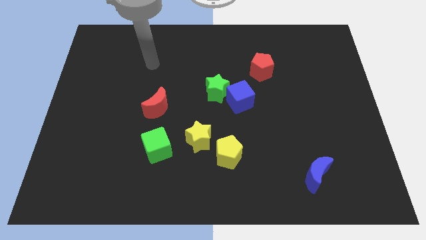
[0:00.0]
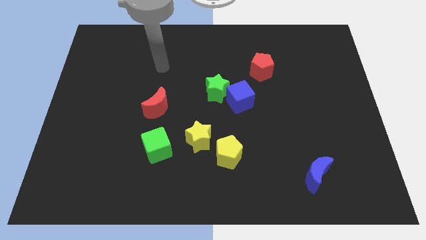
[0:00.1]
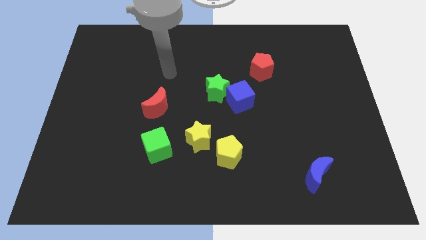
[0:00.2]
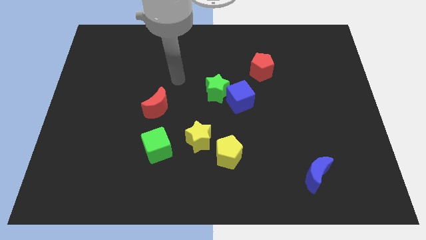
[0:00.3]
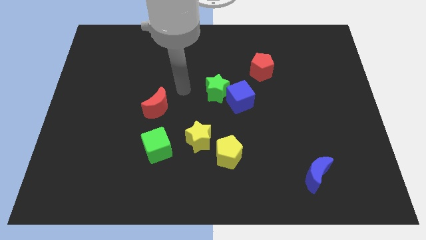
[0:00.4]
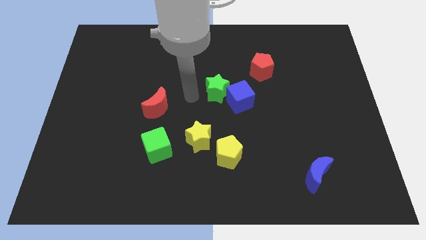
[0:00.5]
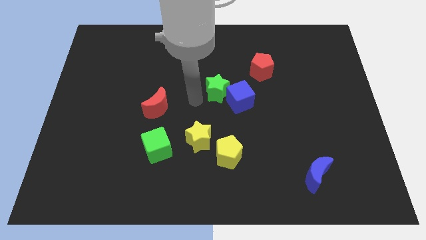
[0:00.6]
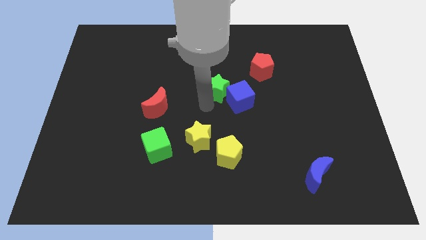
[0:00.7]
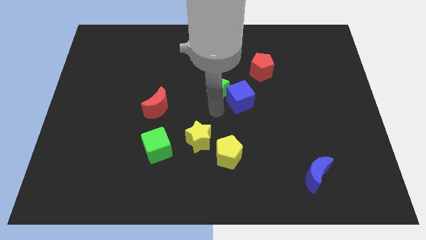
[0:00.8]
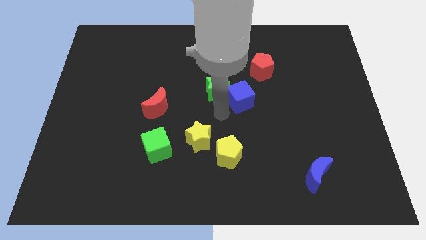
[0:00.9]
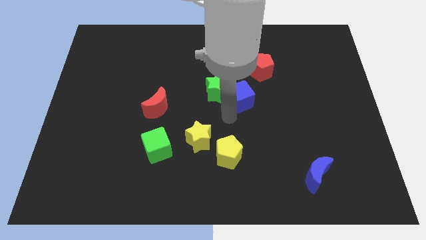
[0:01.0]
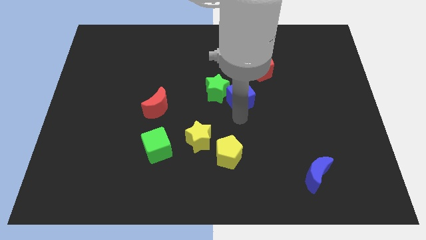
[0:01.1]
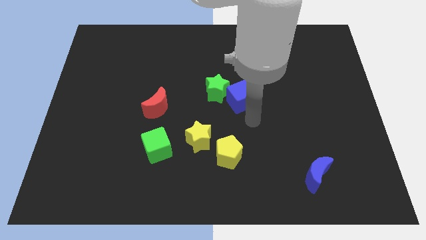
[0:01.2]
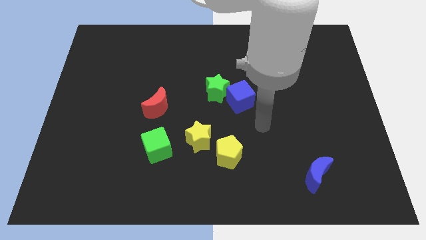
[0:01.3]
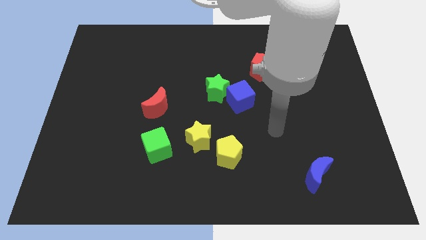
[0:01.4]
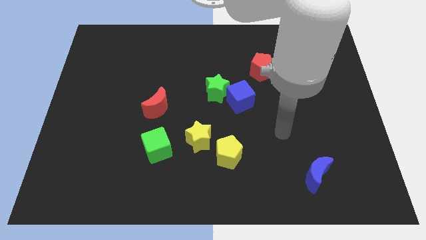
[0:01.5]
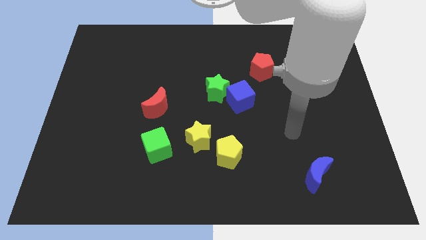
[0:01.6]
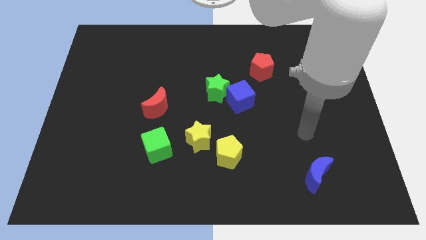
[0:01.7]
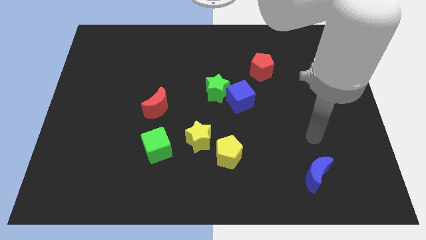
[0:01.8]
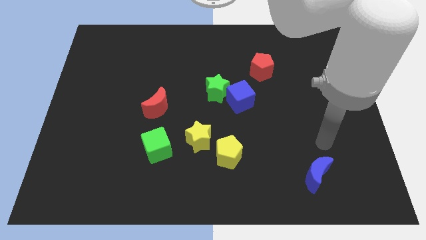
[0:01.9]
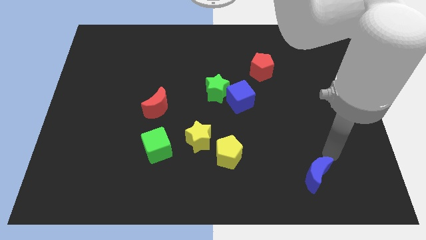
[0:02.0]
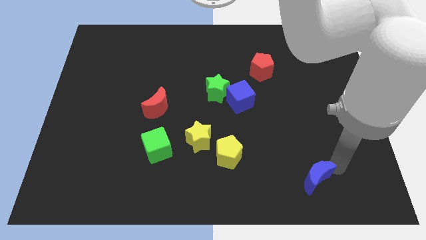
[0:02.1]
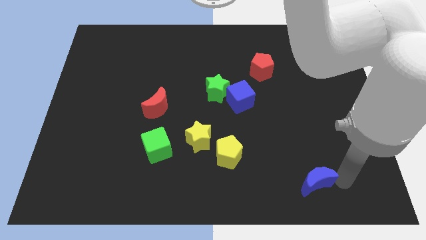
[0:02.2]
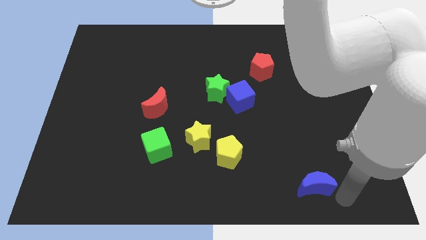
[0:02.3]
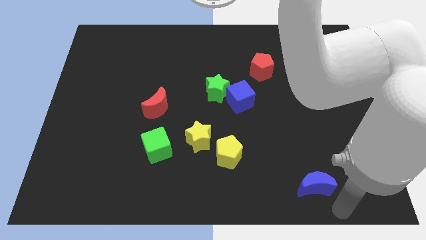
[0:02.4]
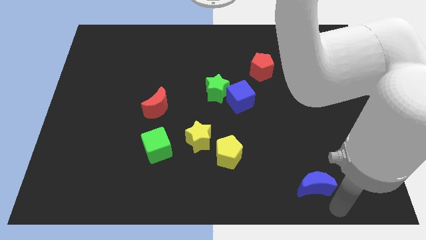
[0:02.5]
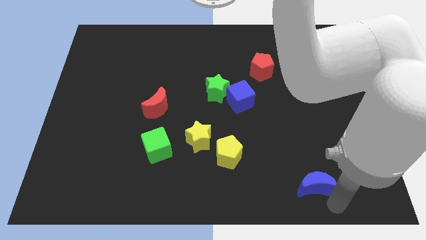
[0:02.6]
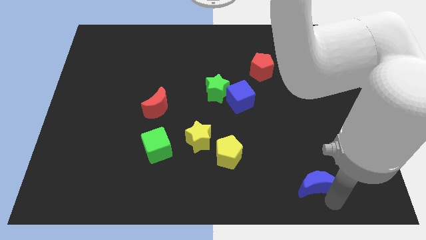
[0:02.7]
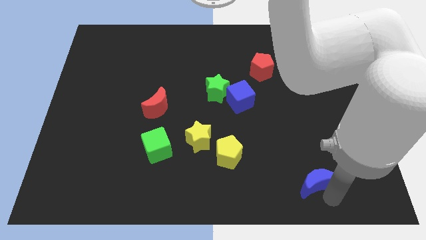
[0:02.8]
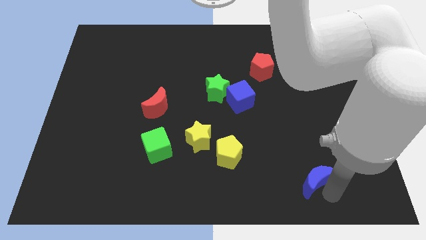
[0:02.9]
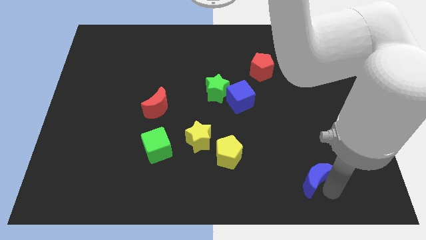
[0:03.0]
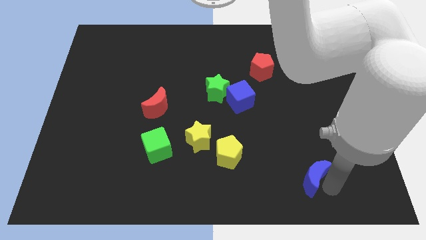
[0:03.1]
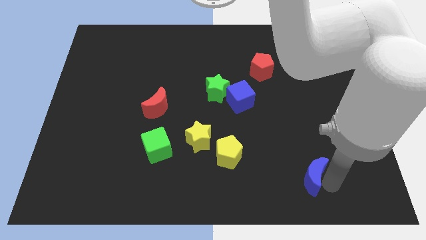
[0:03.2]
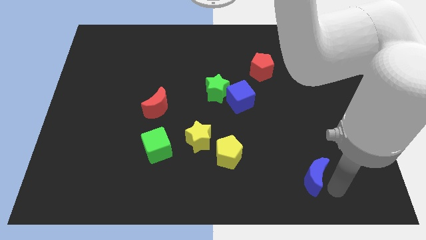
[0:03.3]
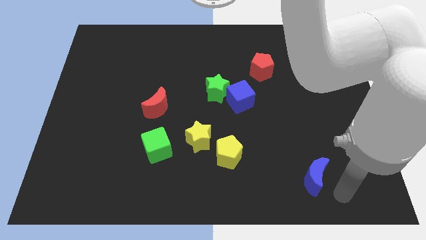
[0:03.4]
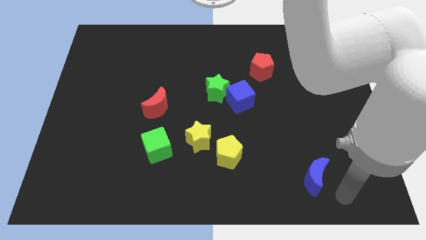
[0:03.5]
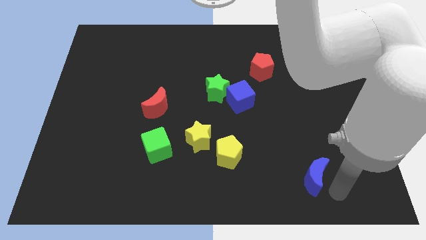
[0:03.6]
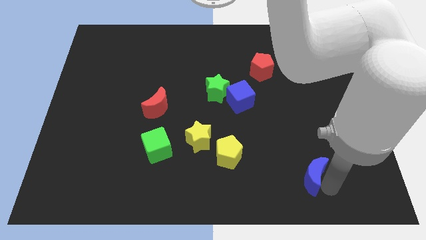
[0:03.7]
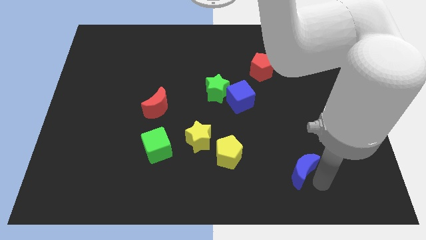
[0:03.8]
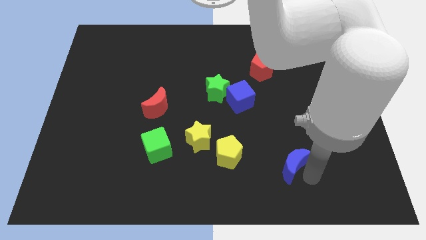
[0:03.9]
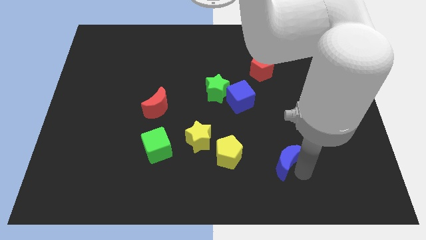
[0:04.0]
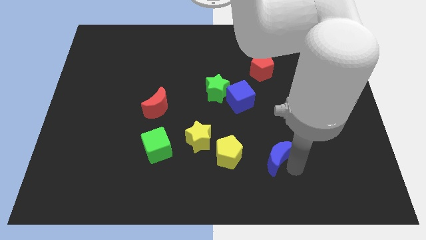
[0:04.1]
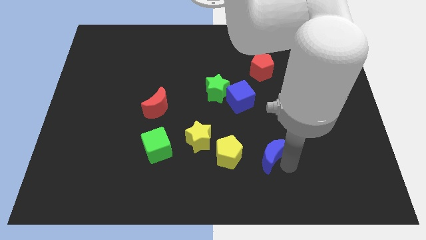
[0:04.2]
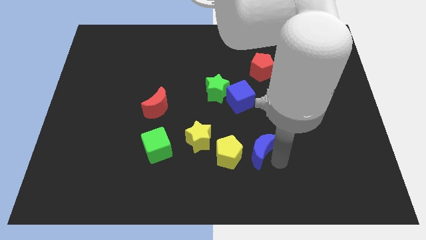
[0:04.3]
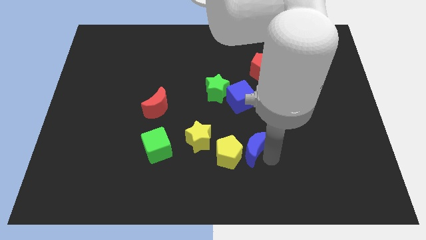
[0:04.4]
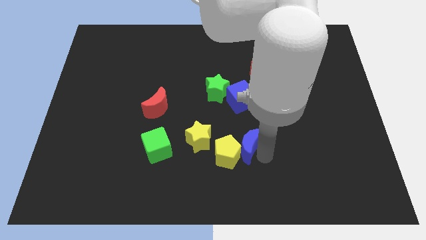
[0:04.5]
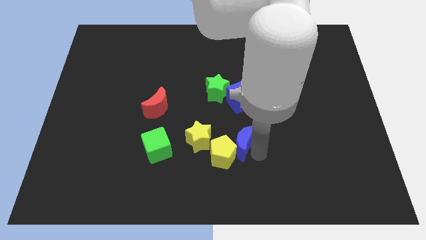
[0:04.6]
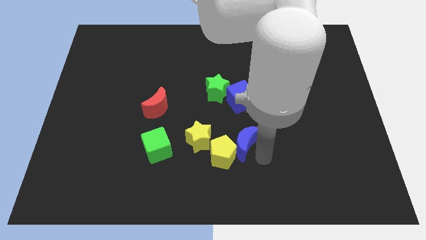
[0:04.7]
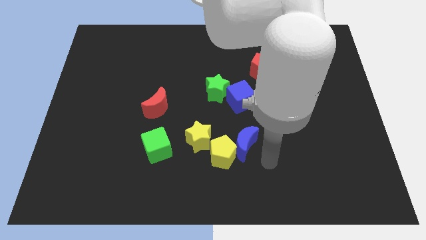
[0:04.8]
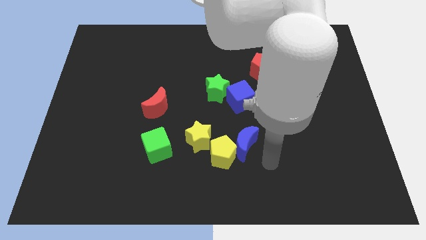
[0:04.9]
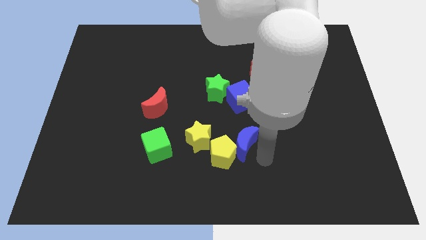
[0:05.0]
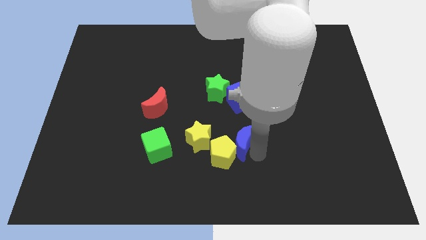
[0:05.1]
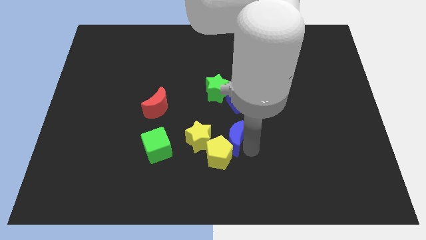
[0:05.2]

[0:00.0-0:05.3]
push the blue moon to the bottom of the green star

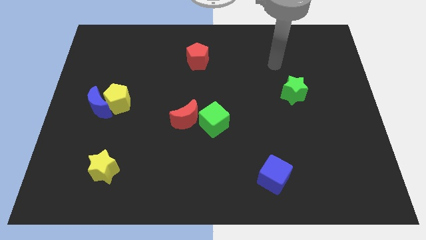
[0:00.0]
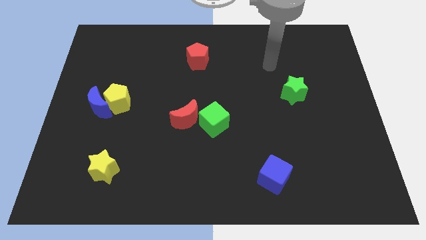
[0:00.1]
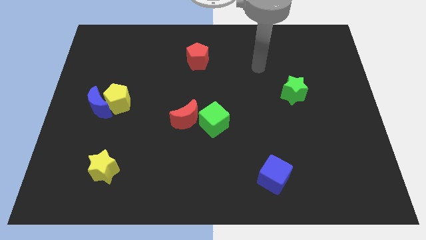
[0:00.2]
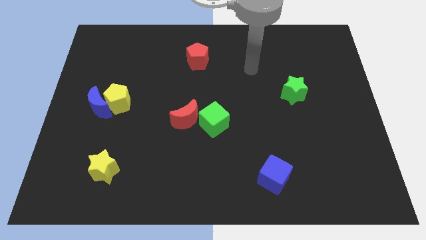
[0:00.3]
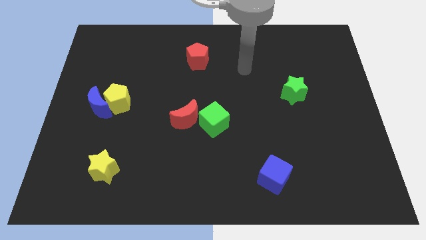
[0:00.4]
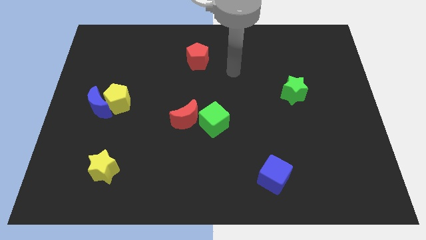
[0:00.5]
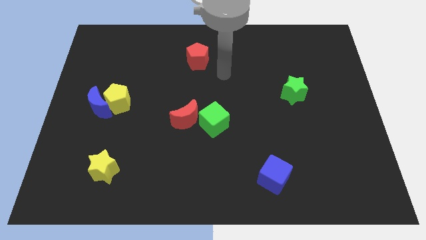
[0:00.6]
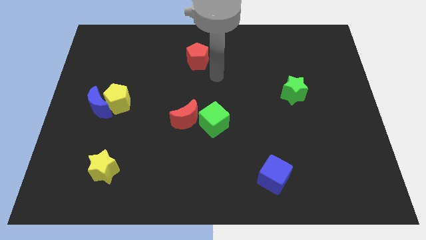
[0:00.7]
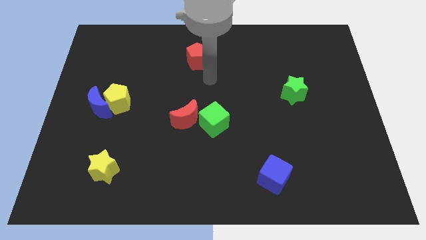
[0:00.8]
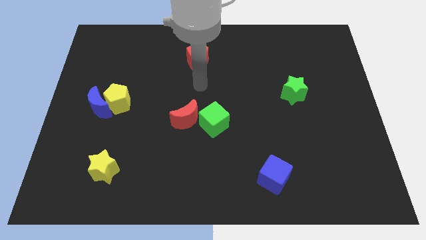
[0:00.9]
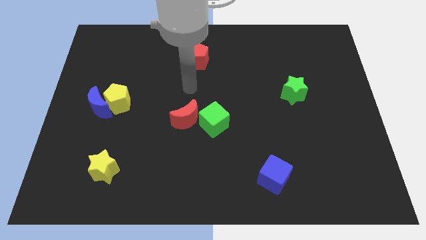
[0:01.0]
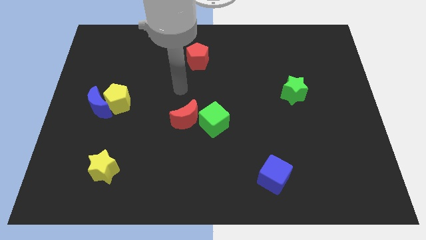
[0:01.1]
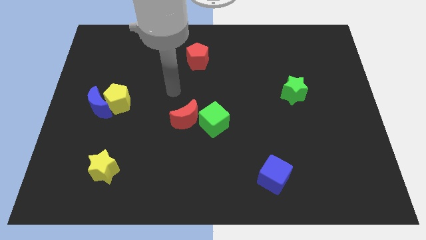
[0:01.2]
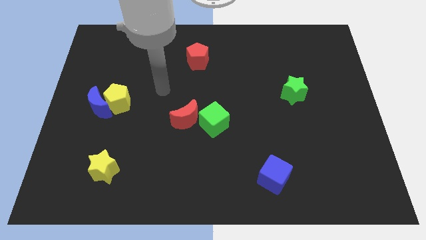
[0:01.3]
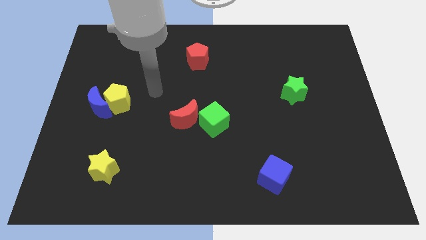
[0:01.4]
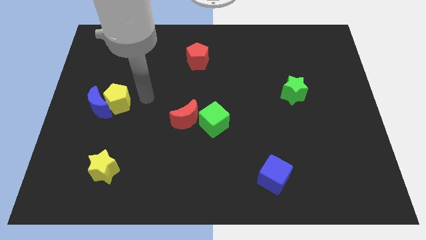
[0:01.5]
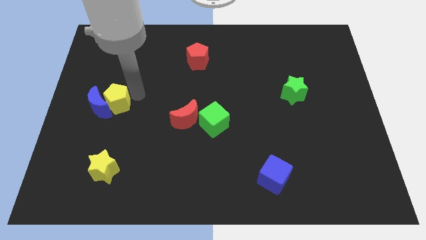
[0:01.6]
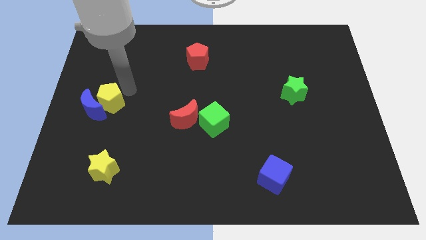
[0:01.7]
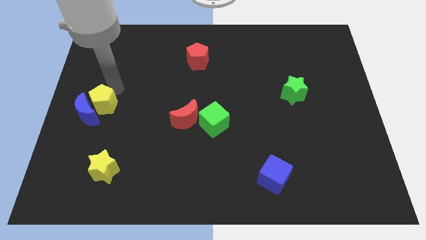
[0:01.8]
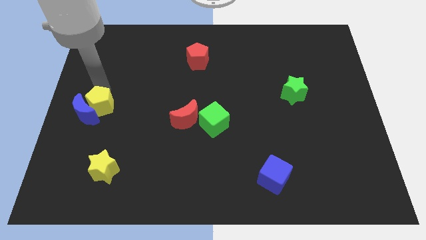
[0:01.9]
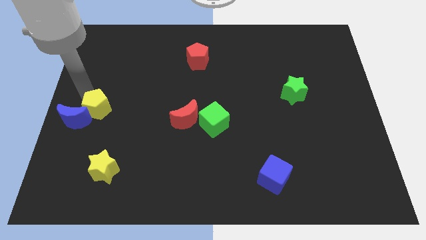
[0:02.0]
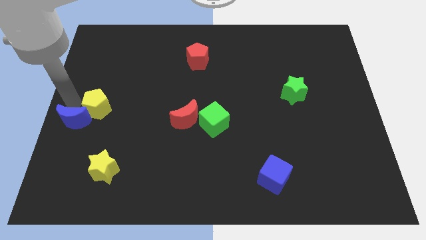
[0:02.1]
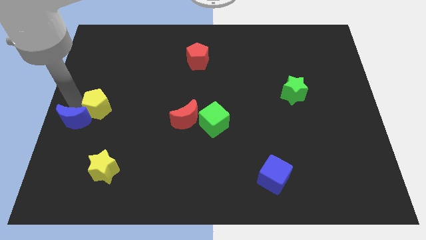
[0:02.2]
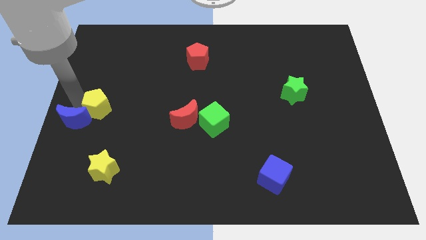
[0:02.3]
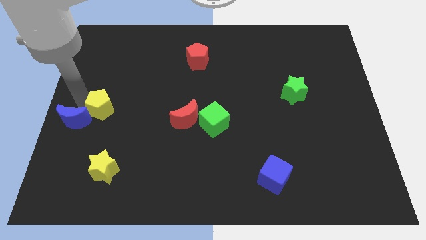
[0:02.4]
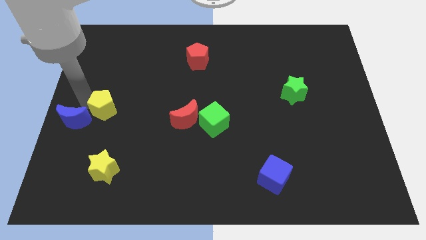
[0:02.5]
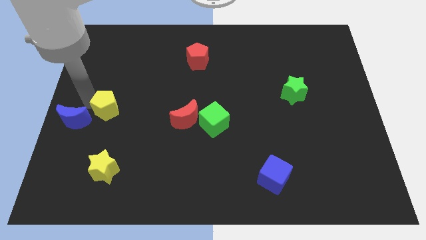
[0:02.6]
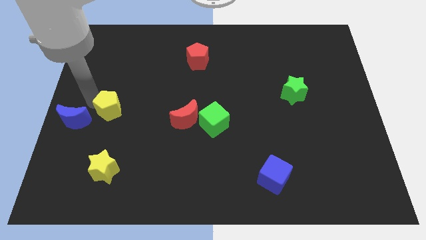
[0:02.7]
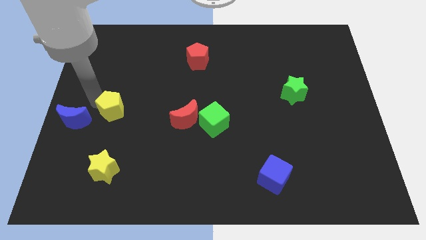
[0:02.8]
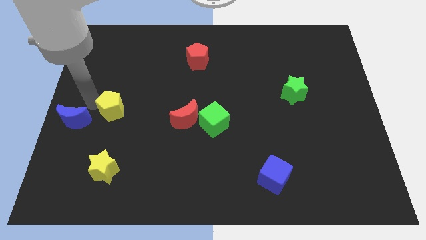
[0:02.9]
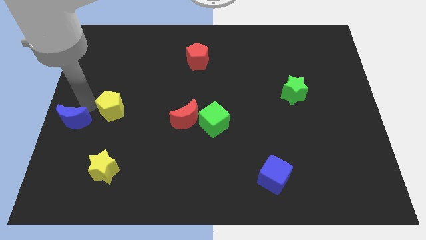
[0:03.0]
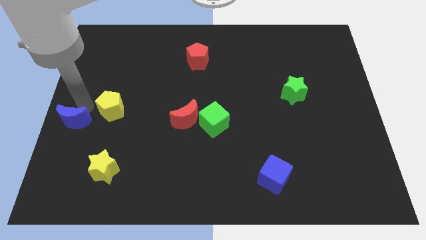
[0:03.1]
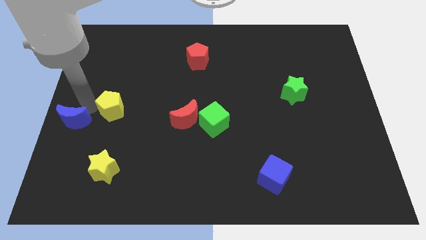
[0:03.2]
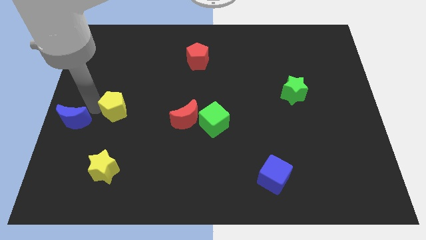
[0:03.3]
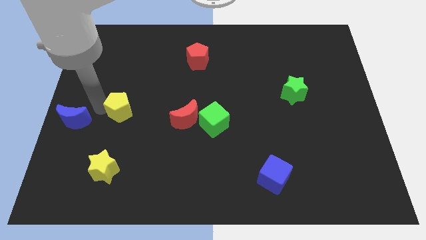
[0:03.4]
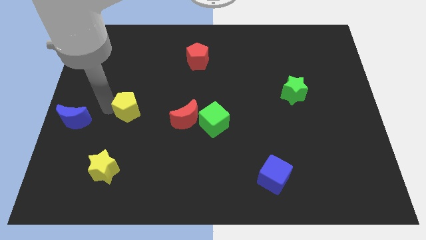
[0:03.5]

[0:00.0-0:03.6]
move the yellow pentagon to the left side of the red moon
